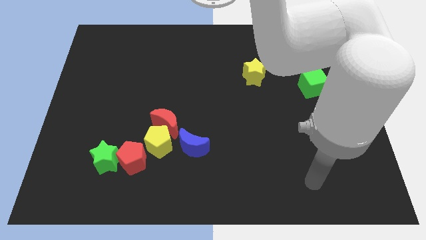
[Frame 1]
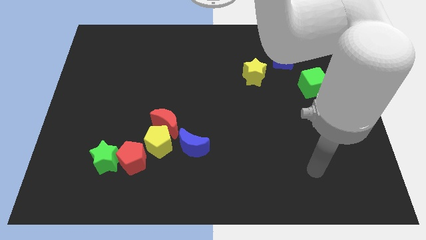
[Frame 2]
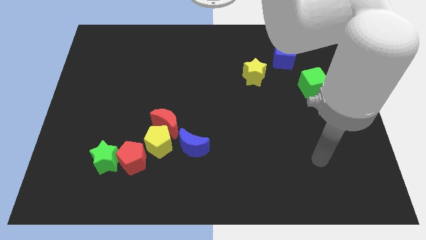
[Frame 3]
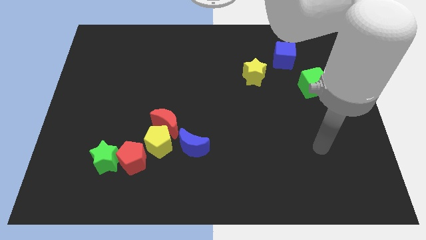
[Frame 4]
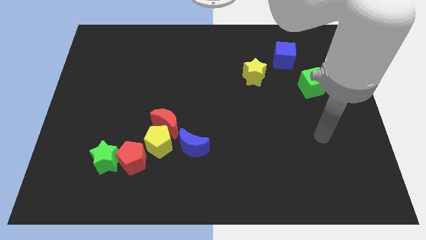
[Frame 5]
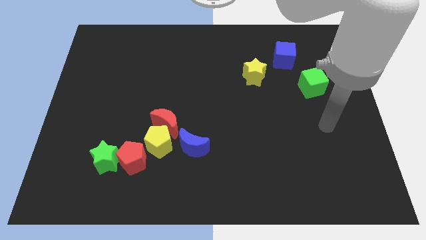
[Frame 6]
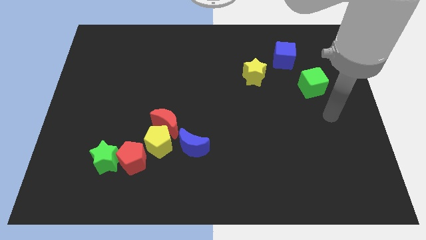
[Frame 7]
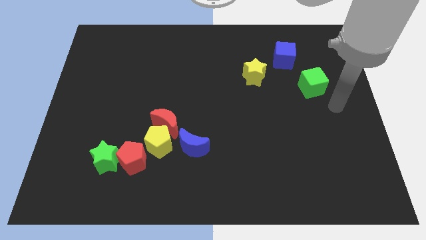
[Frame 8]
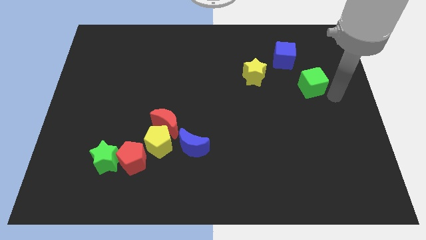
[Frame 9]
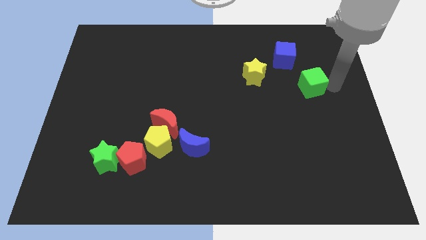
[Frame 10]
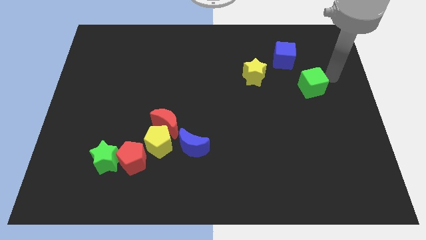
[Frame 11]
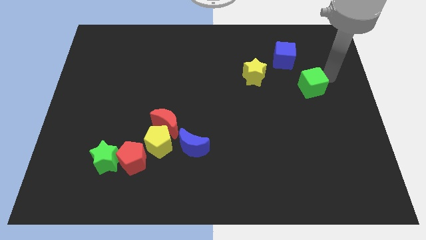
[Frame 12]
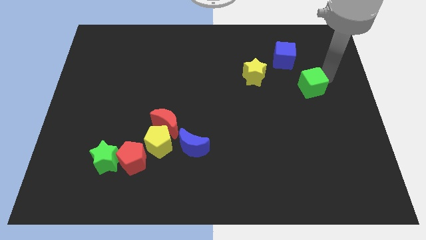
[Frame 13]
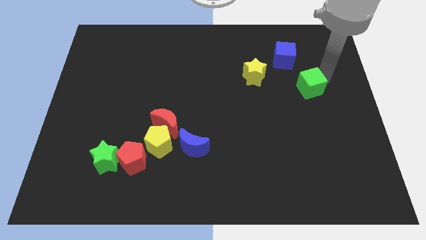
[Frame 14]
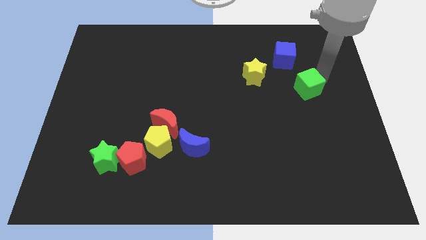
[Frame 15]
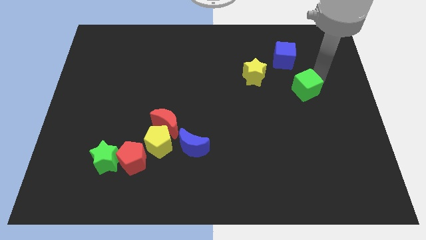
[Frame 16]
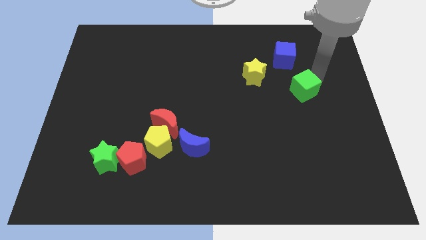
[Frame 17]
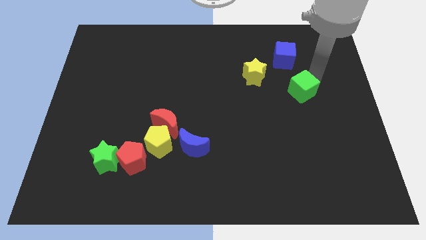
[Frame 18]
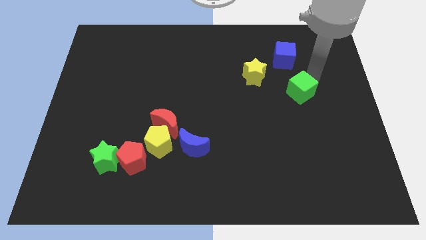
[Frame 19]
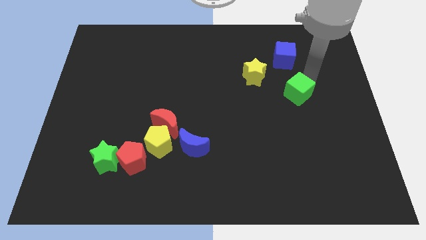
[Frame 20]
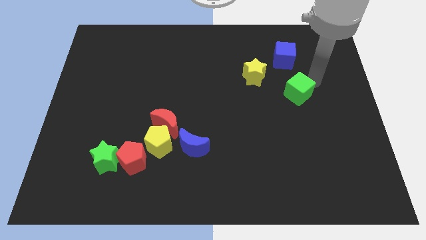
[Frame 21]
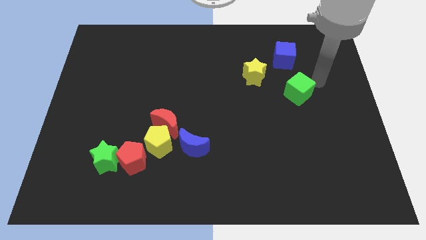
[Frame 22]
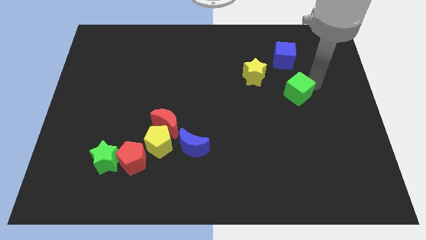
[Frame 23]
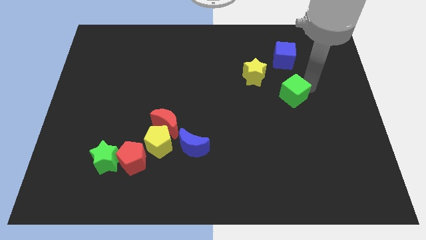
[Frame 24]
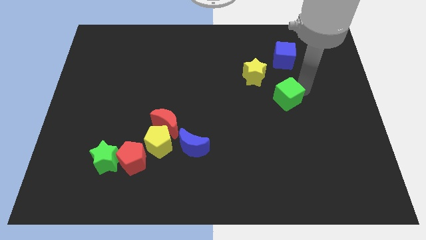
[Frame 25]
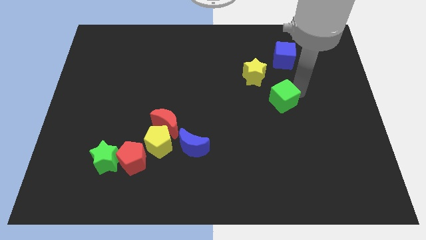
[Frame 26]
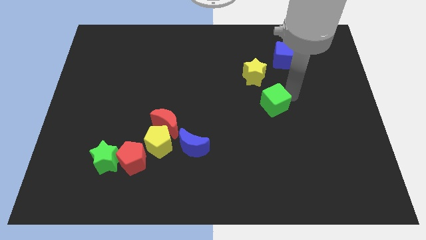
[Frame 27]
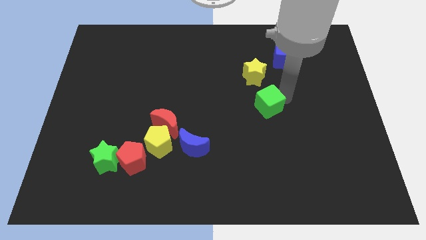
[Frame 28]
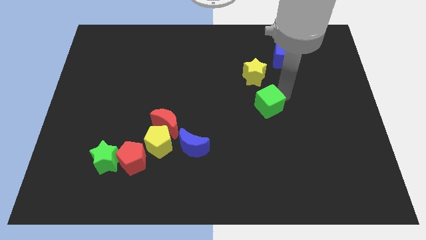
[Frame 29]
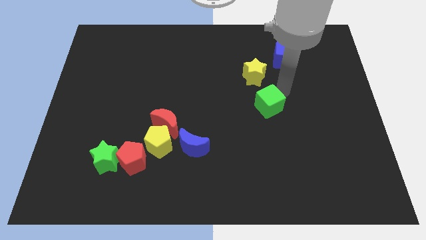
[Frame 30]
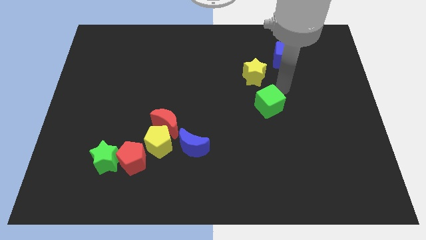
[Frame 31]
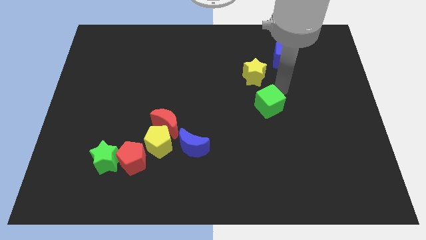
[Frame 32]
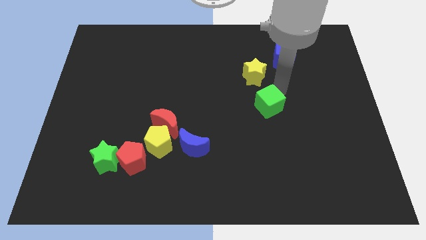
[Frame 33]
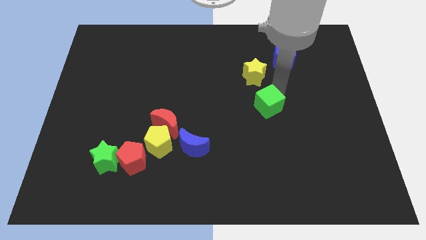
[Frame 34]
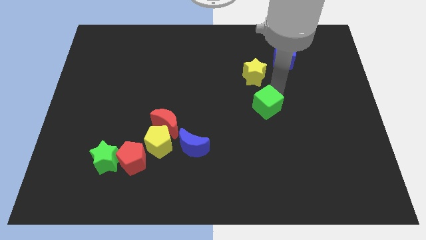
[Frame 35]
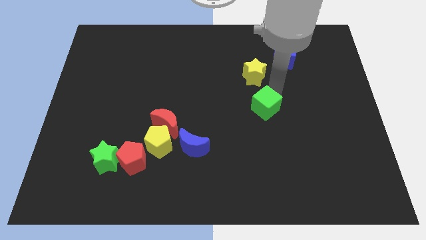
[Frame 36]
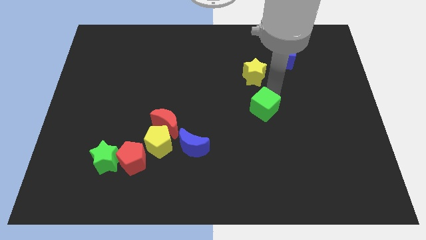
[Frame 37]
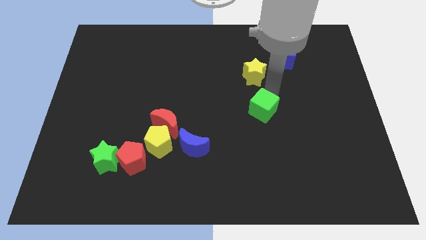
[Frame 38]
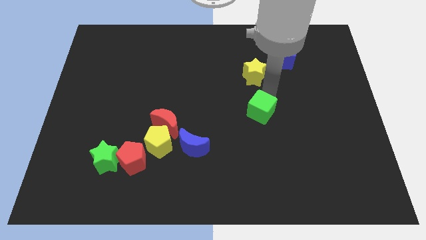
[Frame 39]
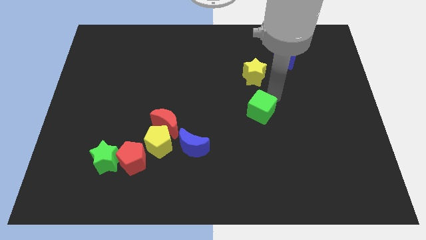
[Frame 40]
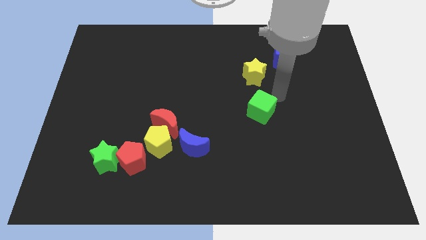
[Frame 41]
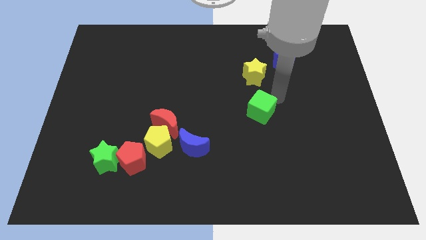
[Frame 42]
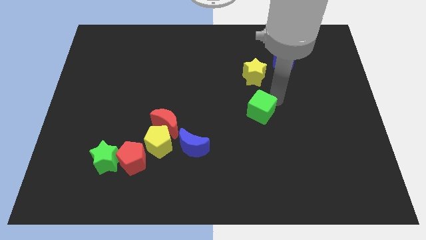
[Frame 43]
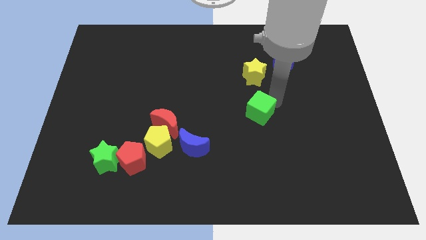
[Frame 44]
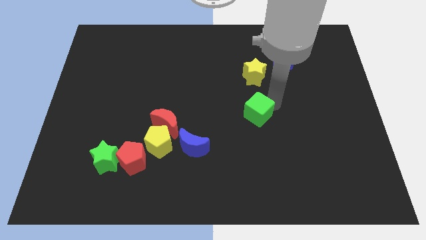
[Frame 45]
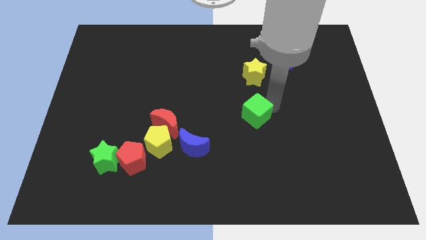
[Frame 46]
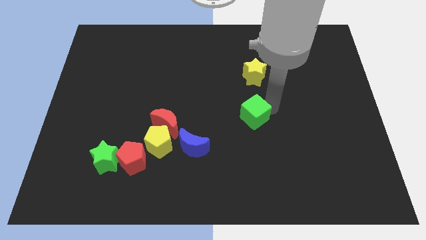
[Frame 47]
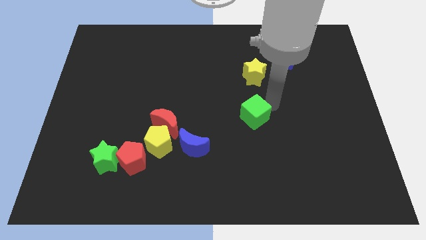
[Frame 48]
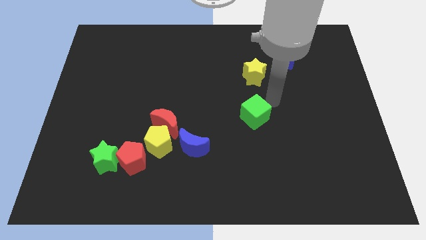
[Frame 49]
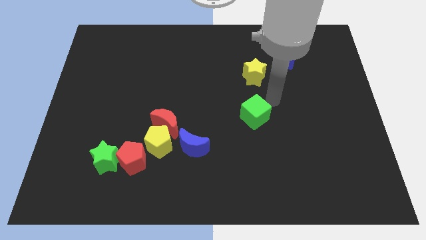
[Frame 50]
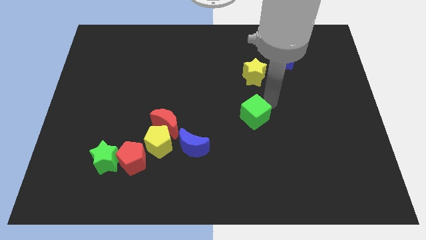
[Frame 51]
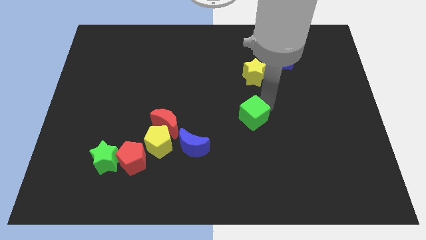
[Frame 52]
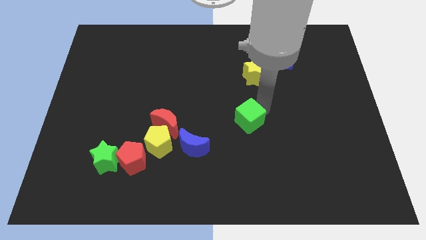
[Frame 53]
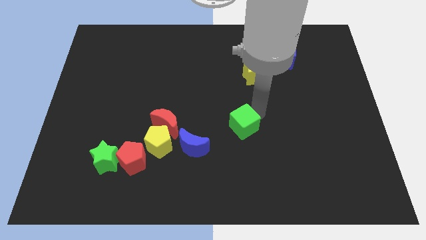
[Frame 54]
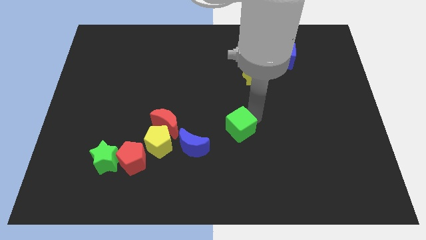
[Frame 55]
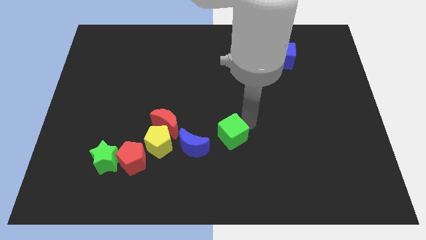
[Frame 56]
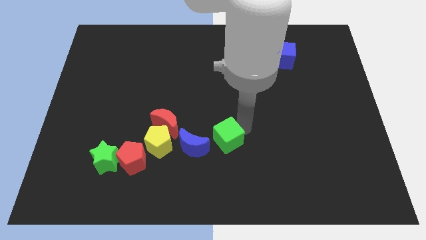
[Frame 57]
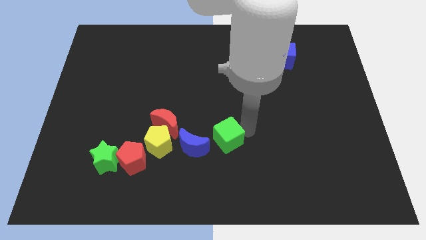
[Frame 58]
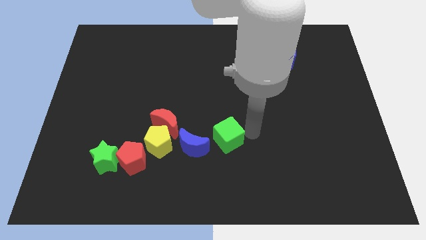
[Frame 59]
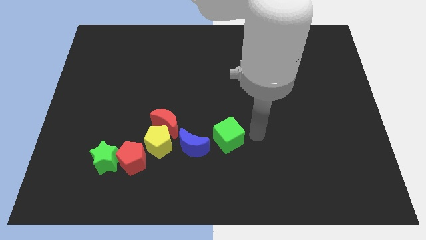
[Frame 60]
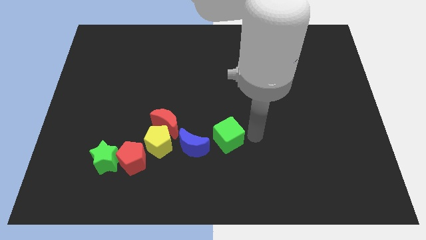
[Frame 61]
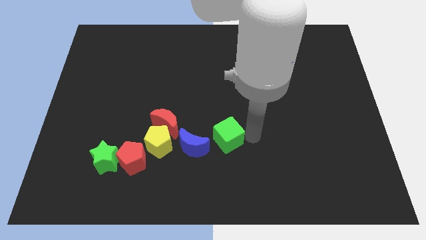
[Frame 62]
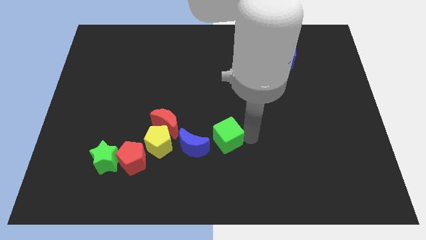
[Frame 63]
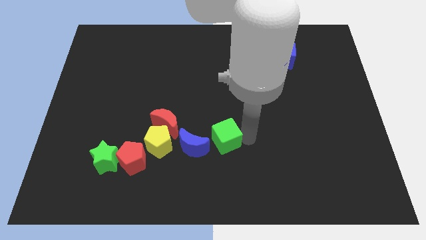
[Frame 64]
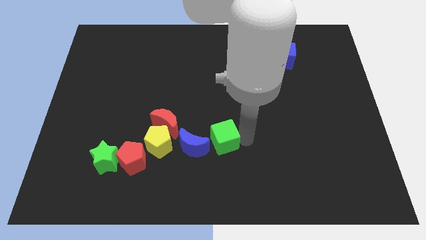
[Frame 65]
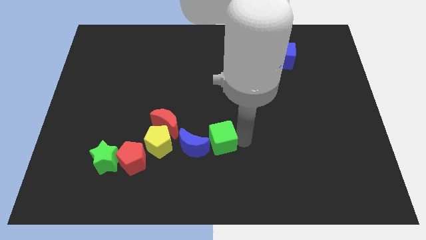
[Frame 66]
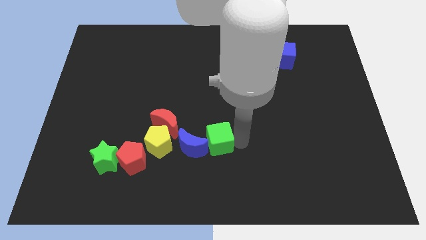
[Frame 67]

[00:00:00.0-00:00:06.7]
slide the green cube close to the blue moon
